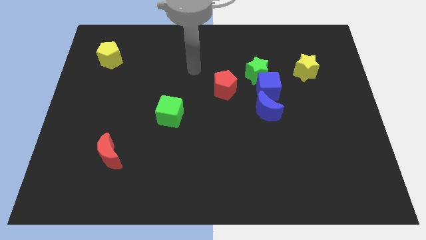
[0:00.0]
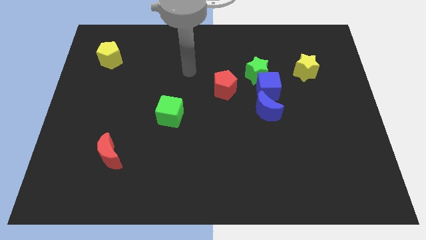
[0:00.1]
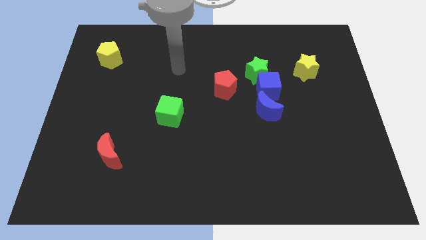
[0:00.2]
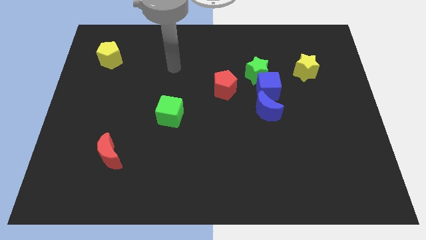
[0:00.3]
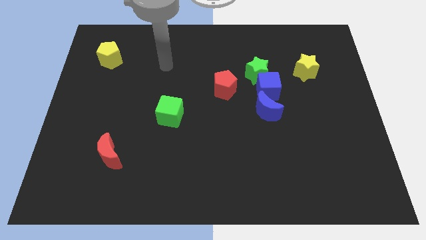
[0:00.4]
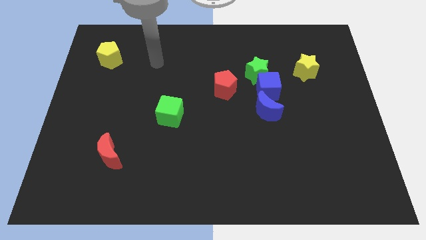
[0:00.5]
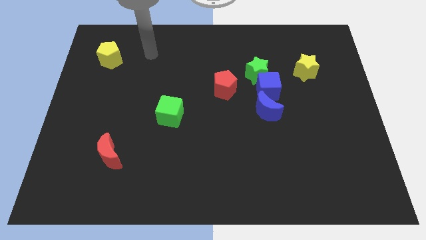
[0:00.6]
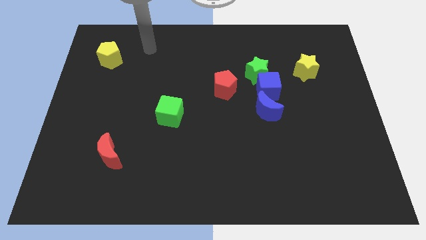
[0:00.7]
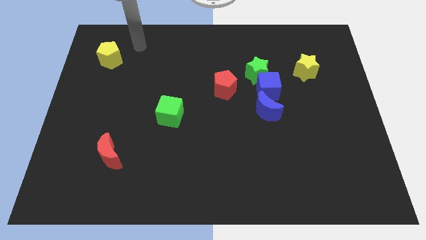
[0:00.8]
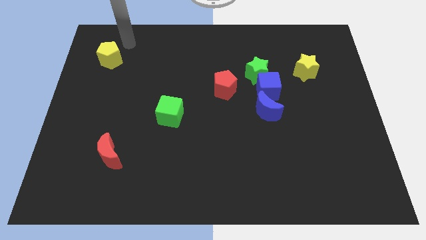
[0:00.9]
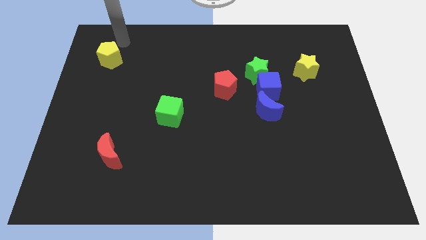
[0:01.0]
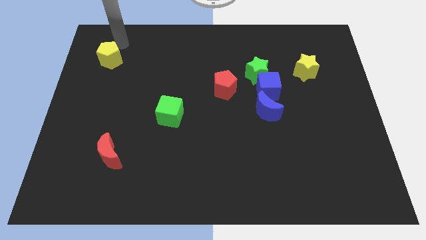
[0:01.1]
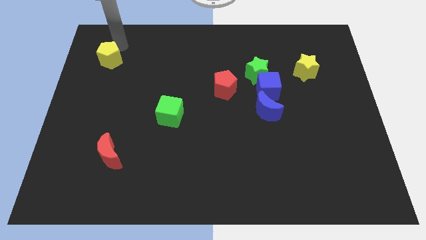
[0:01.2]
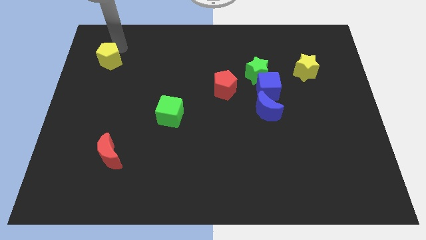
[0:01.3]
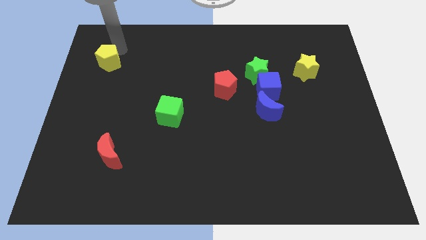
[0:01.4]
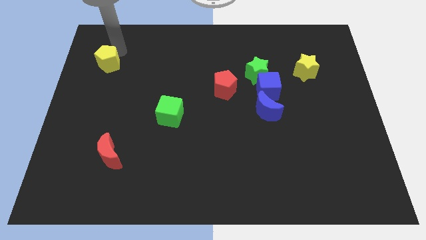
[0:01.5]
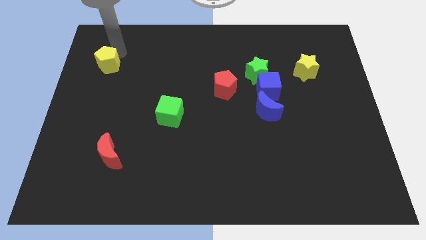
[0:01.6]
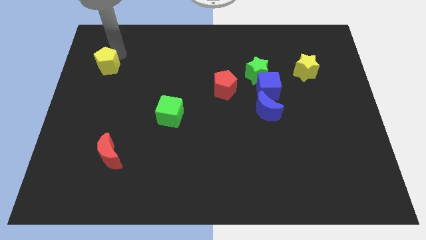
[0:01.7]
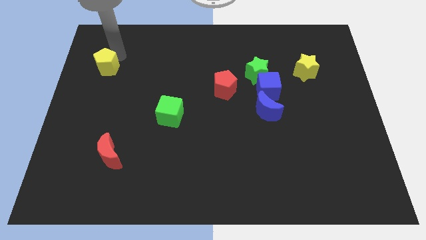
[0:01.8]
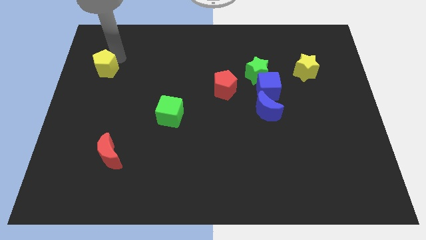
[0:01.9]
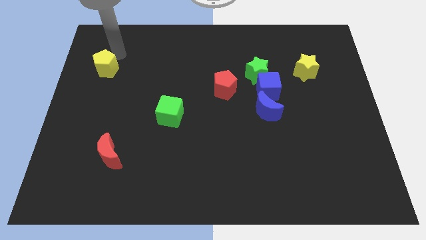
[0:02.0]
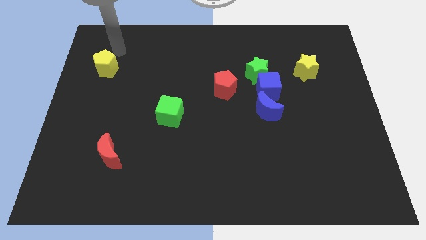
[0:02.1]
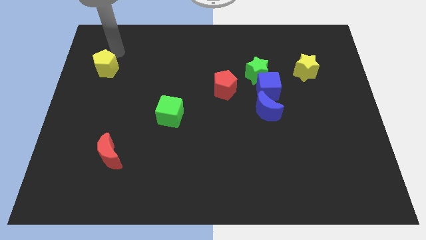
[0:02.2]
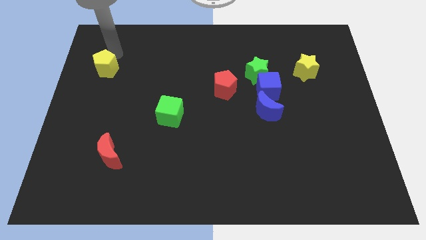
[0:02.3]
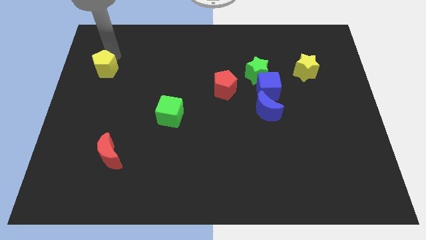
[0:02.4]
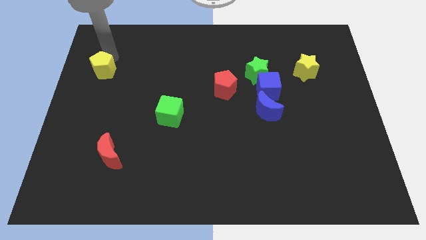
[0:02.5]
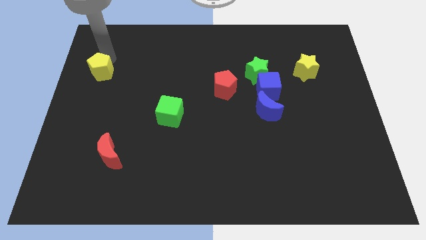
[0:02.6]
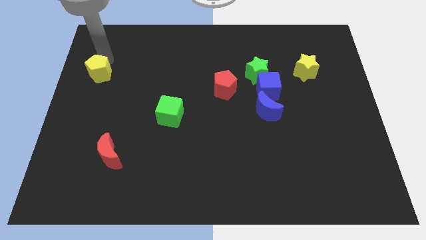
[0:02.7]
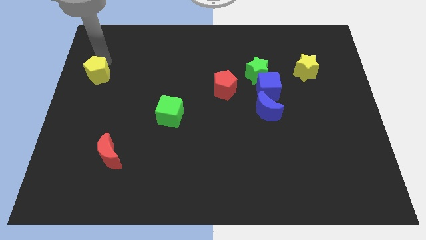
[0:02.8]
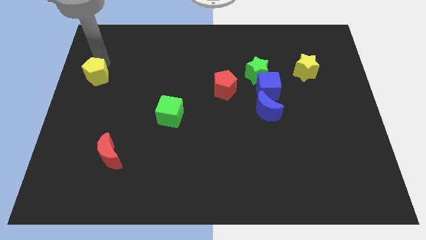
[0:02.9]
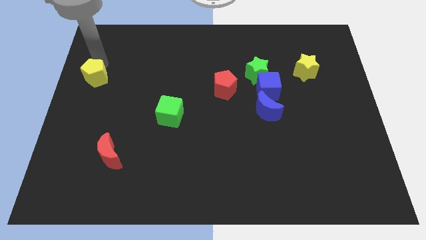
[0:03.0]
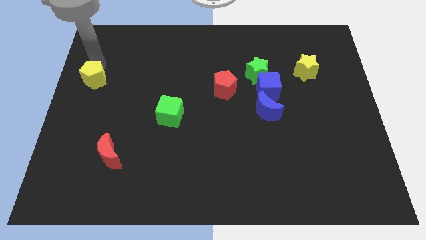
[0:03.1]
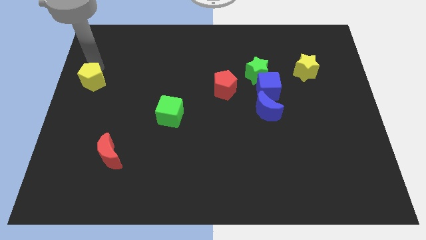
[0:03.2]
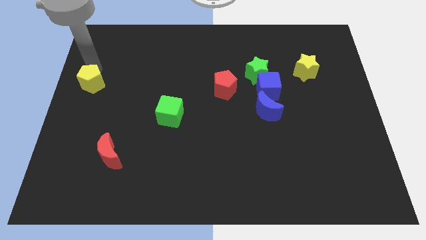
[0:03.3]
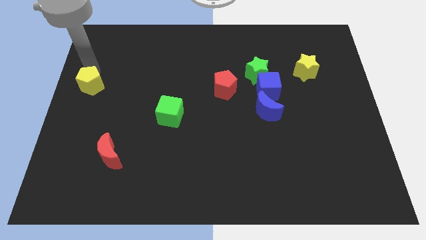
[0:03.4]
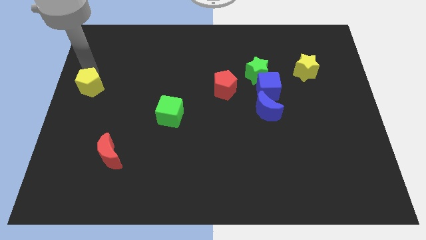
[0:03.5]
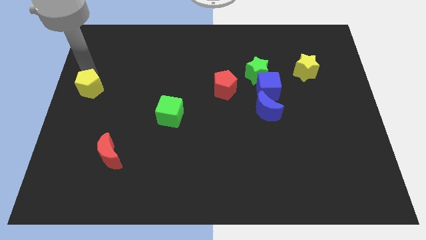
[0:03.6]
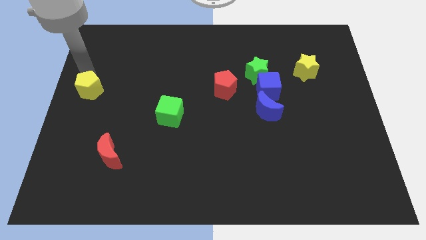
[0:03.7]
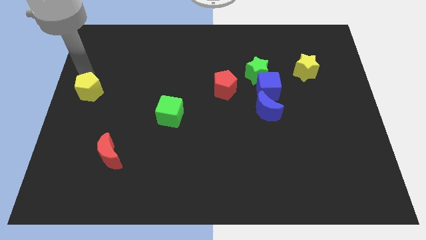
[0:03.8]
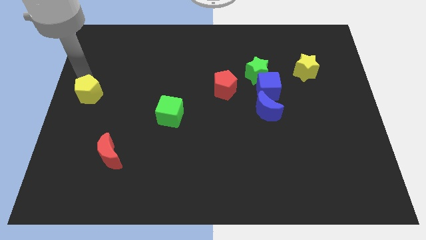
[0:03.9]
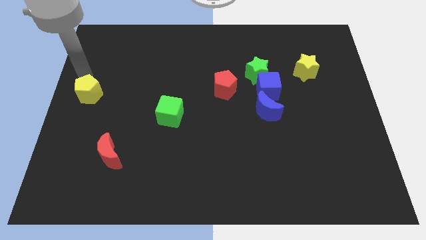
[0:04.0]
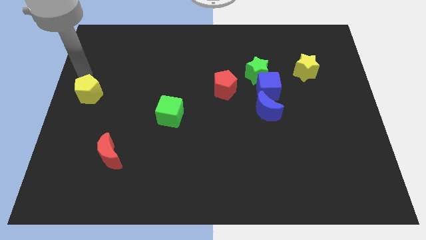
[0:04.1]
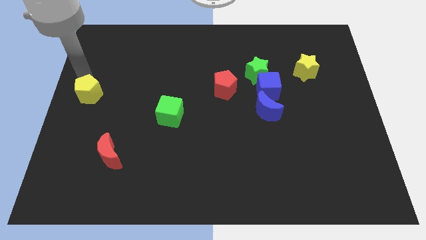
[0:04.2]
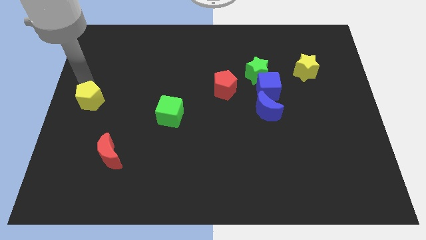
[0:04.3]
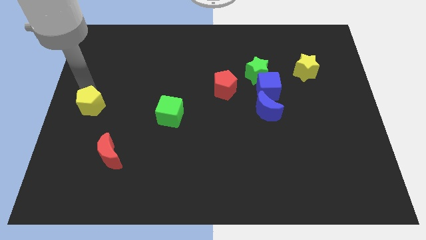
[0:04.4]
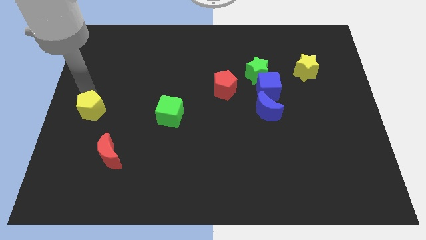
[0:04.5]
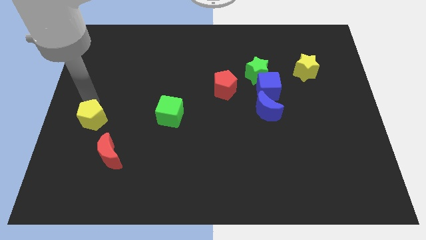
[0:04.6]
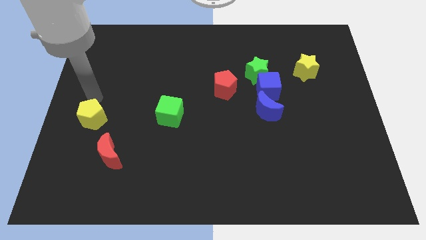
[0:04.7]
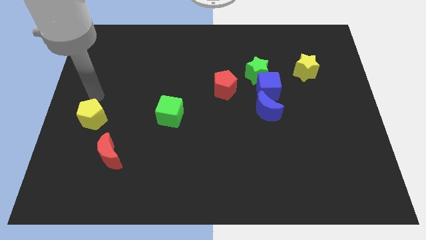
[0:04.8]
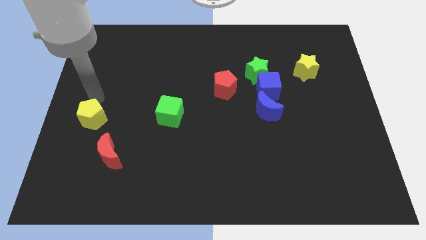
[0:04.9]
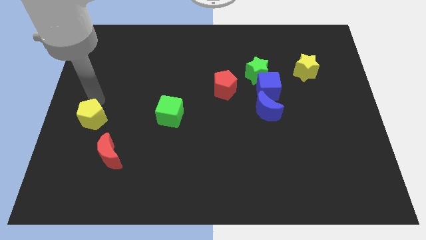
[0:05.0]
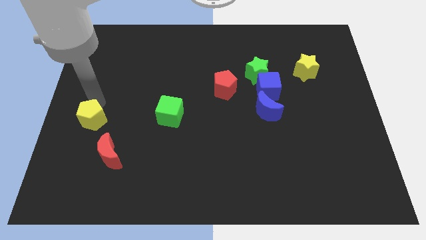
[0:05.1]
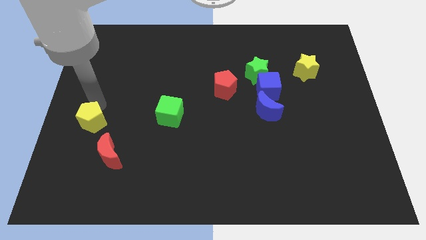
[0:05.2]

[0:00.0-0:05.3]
slide the yellow pentagon down

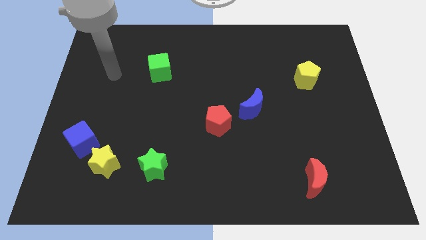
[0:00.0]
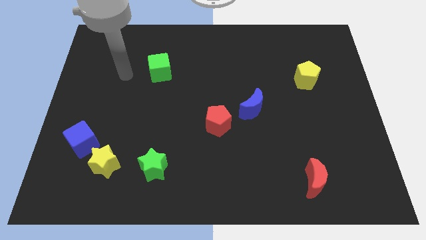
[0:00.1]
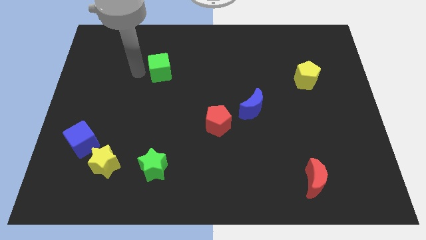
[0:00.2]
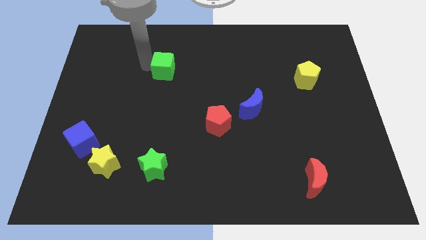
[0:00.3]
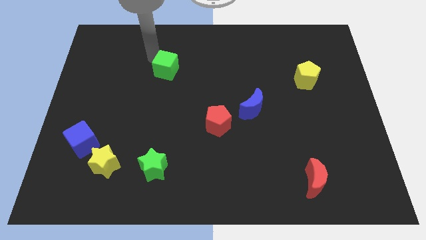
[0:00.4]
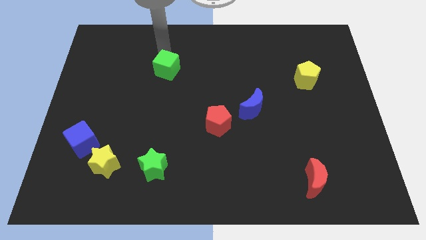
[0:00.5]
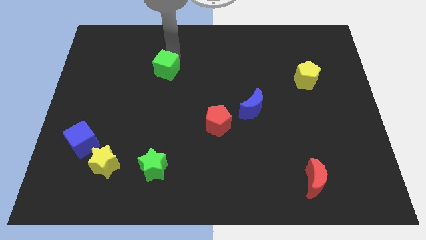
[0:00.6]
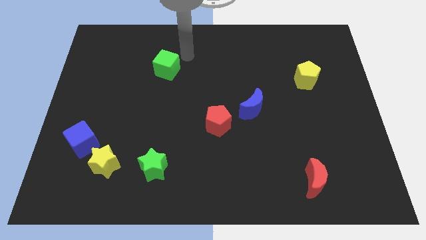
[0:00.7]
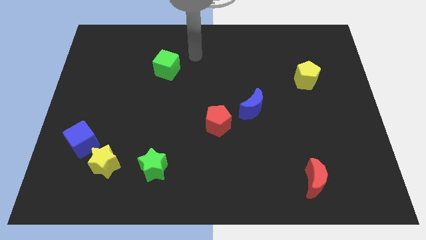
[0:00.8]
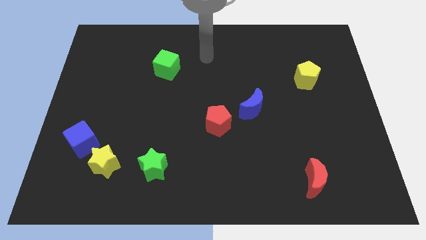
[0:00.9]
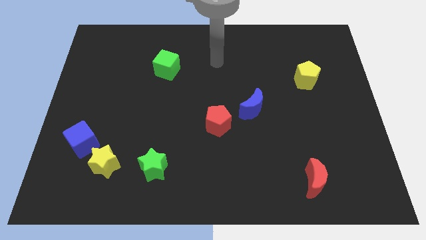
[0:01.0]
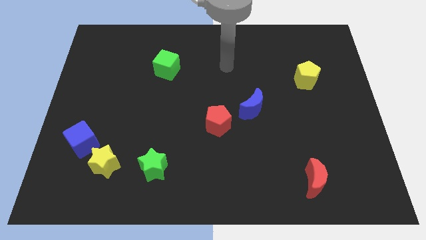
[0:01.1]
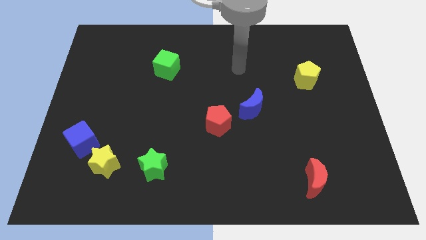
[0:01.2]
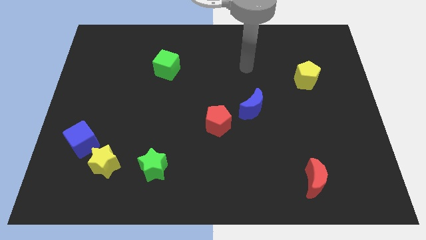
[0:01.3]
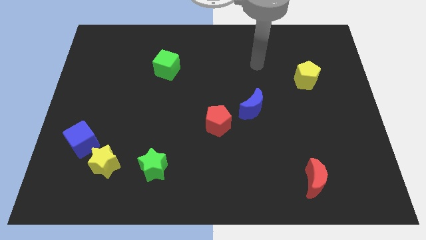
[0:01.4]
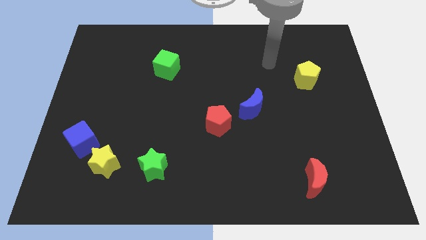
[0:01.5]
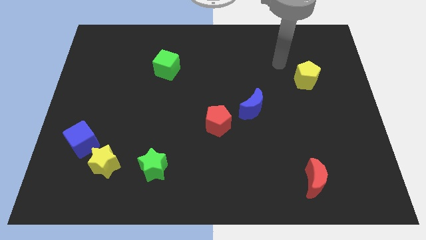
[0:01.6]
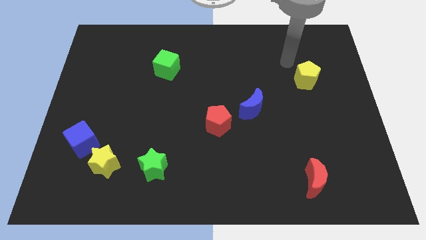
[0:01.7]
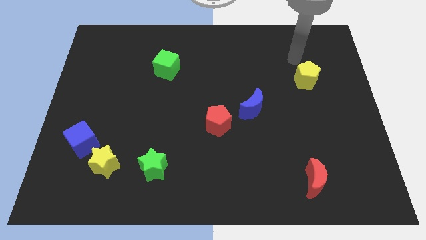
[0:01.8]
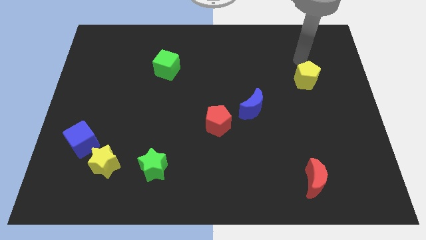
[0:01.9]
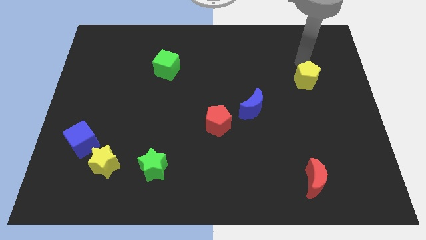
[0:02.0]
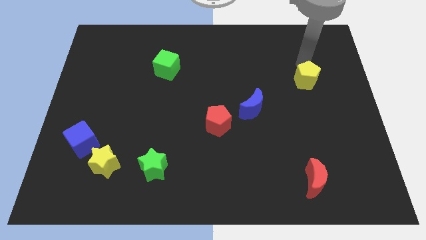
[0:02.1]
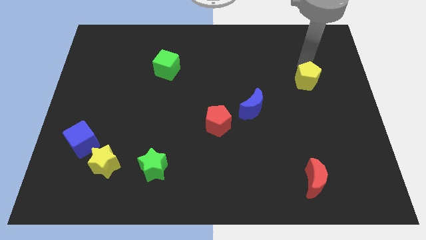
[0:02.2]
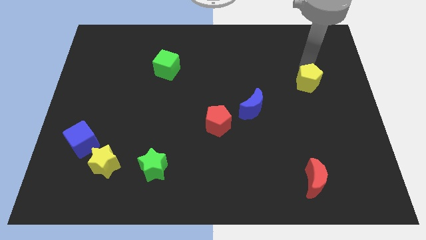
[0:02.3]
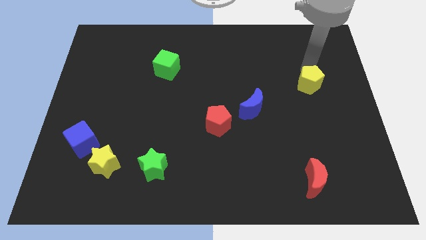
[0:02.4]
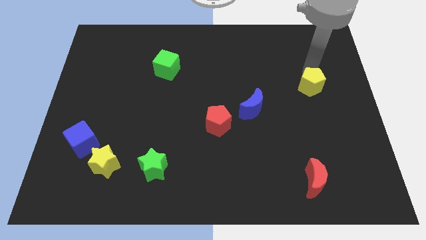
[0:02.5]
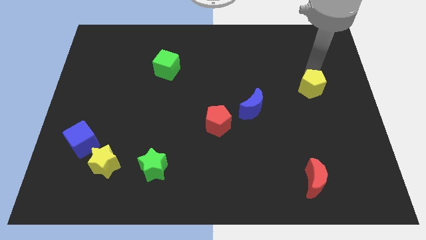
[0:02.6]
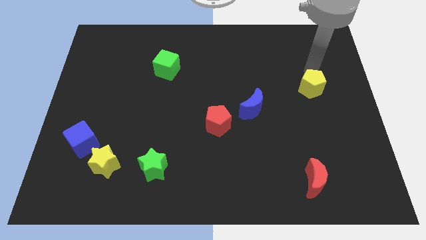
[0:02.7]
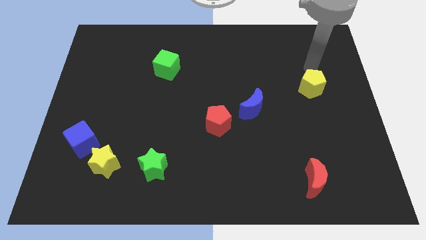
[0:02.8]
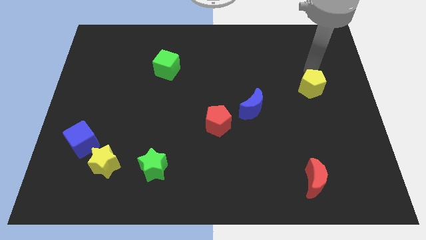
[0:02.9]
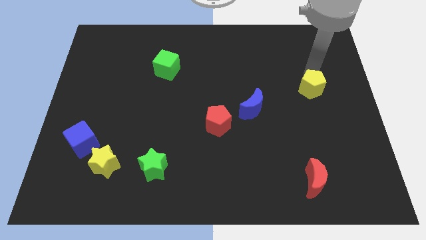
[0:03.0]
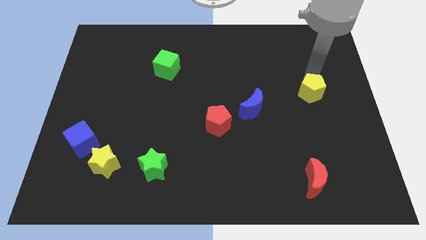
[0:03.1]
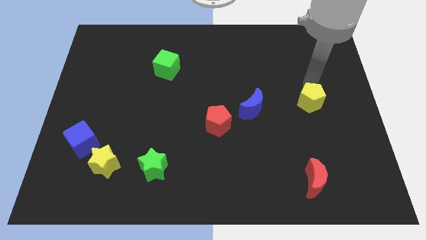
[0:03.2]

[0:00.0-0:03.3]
slide the yellow pentagon down a little
